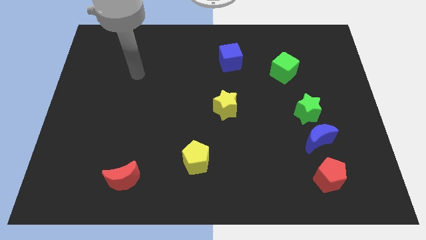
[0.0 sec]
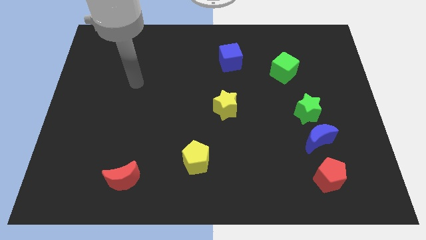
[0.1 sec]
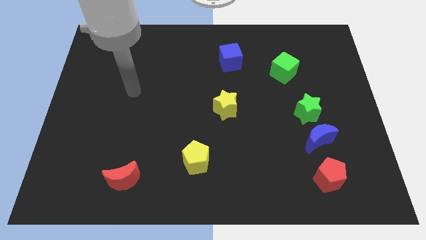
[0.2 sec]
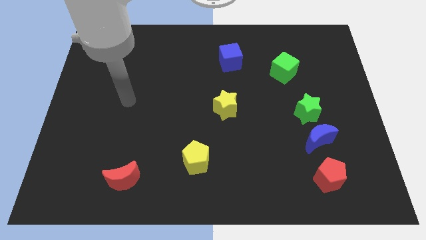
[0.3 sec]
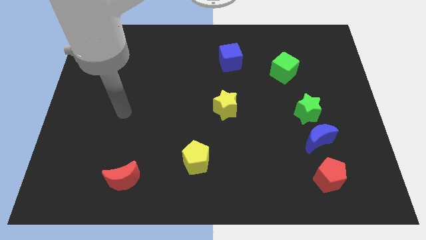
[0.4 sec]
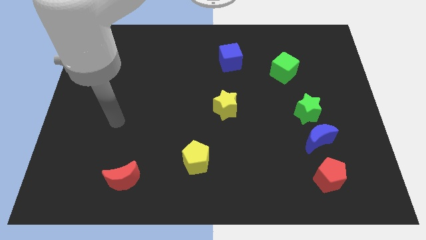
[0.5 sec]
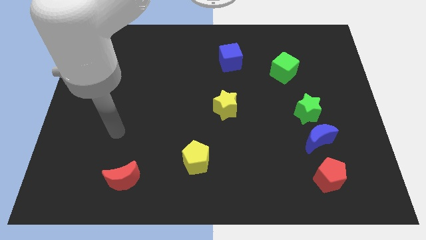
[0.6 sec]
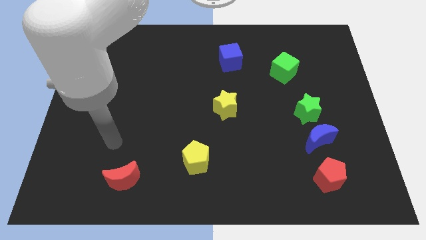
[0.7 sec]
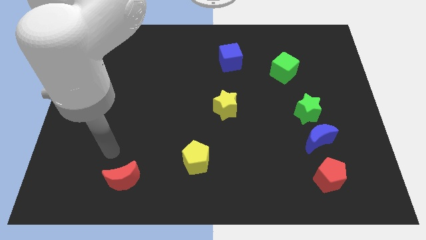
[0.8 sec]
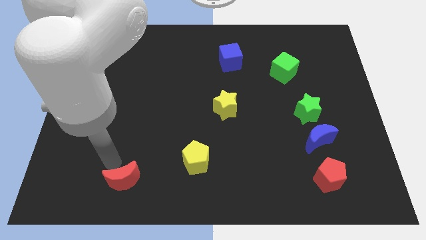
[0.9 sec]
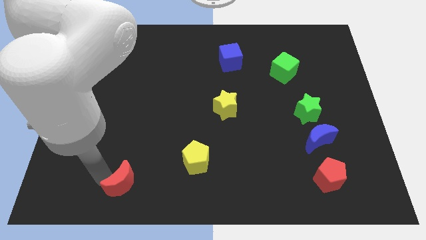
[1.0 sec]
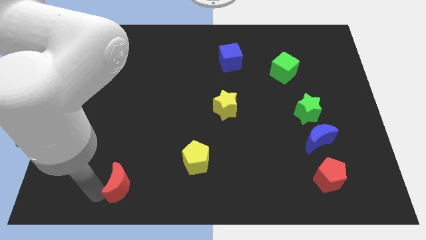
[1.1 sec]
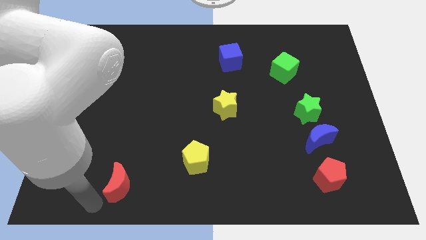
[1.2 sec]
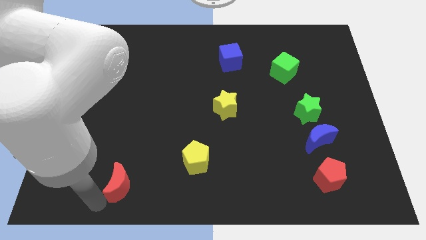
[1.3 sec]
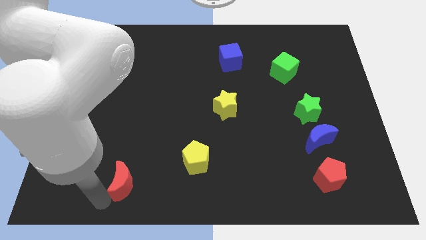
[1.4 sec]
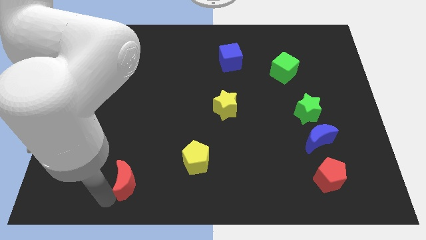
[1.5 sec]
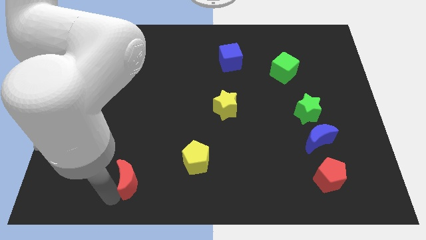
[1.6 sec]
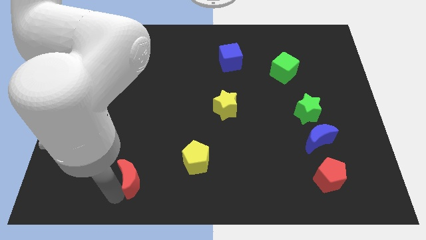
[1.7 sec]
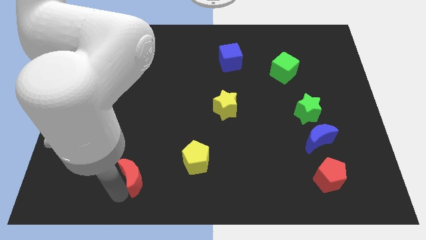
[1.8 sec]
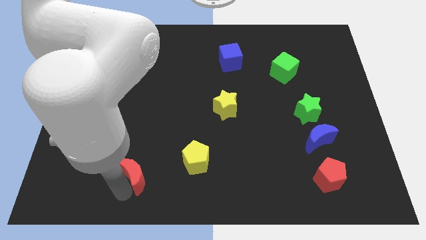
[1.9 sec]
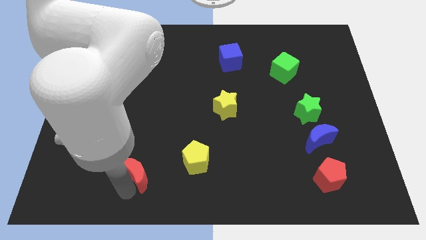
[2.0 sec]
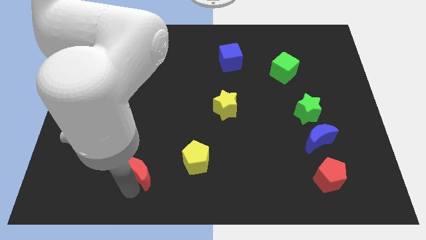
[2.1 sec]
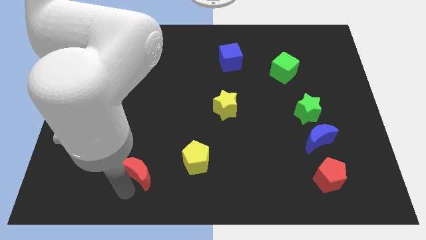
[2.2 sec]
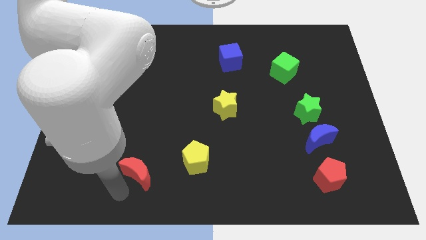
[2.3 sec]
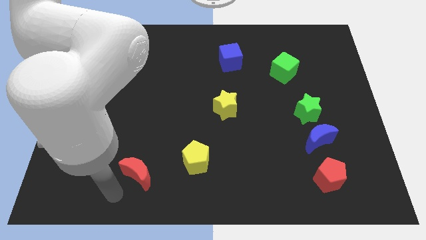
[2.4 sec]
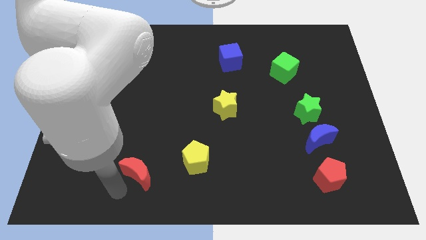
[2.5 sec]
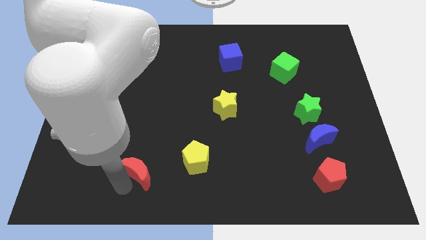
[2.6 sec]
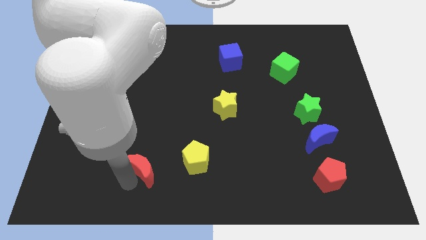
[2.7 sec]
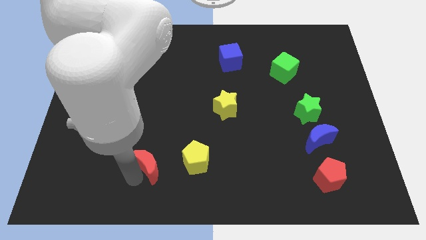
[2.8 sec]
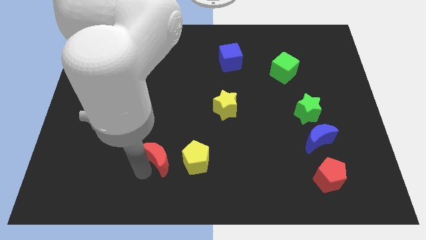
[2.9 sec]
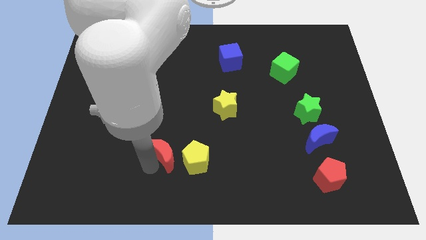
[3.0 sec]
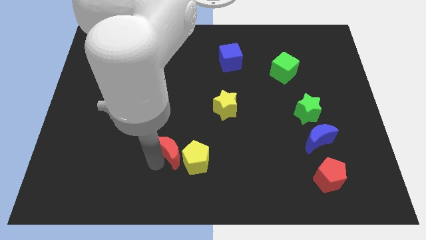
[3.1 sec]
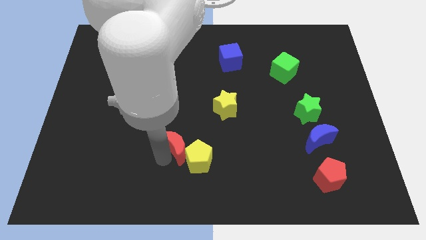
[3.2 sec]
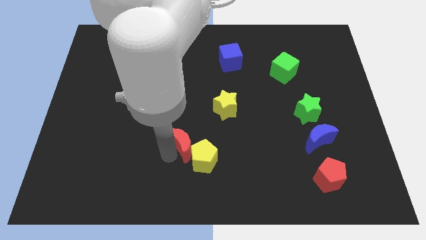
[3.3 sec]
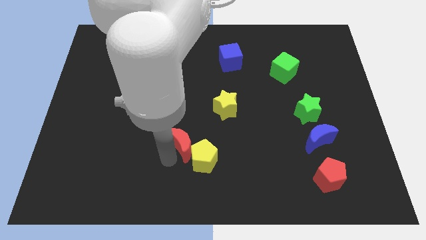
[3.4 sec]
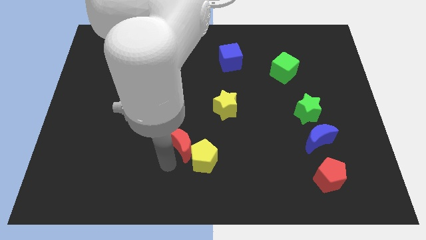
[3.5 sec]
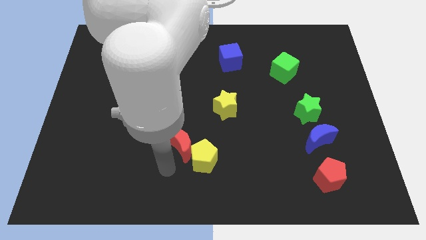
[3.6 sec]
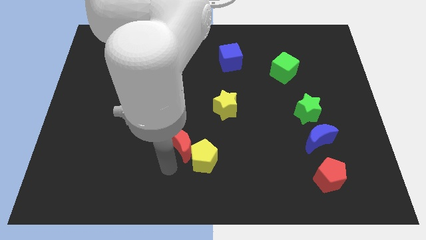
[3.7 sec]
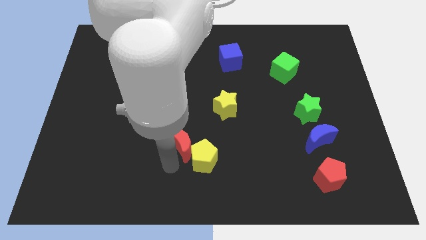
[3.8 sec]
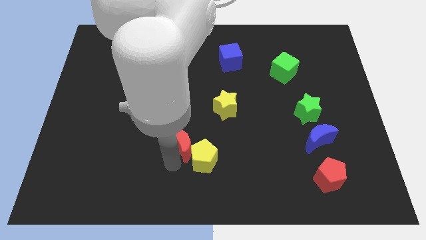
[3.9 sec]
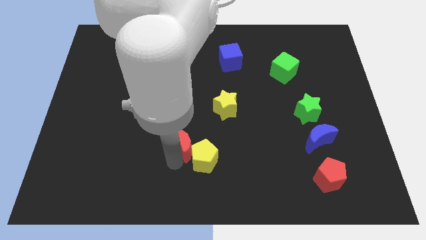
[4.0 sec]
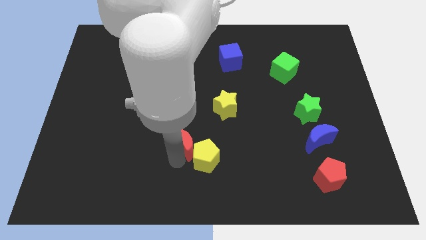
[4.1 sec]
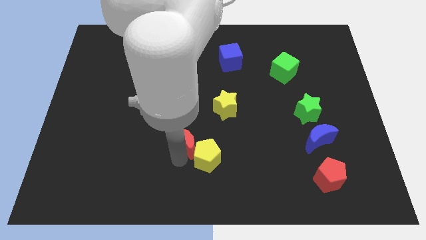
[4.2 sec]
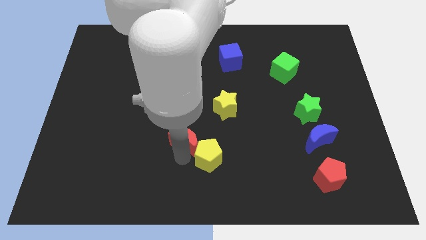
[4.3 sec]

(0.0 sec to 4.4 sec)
slide the red moon to the bottom left side of the yellow star

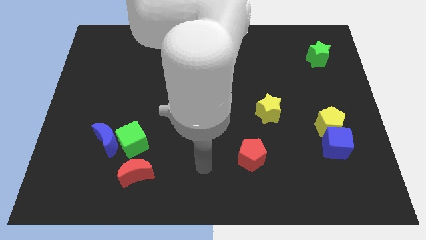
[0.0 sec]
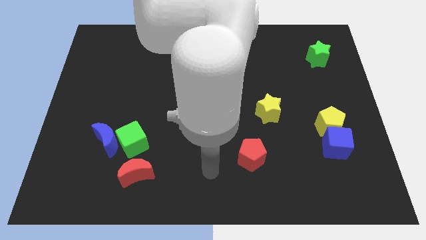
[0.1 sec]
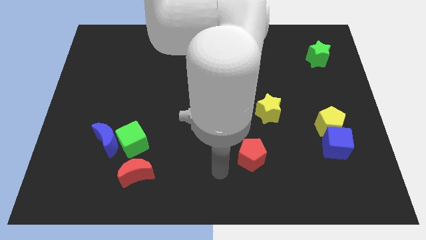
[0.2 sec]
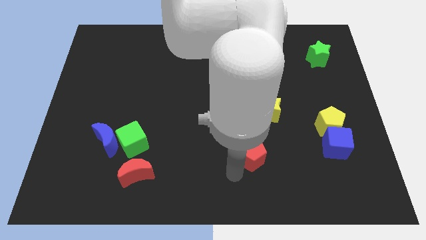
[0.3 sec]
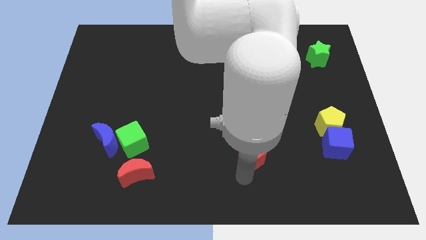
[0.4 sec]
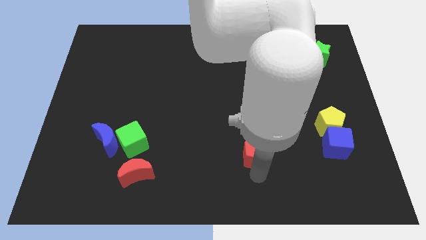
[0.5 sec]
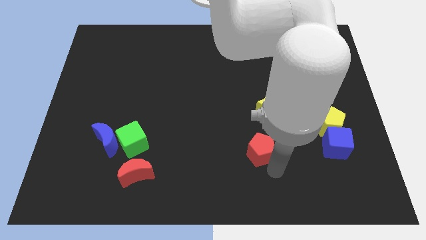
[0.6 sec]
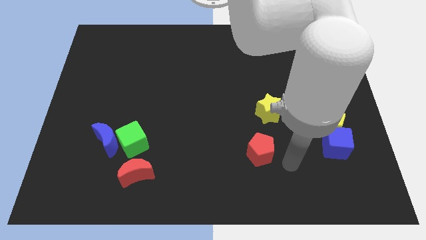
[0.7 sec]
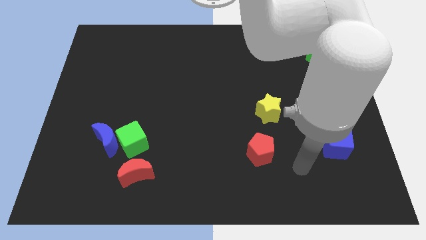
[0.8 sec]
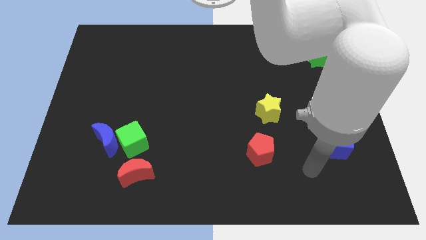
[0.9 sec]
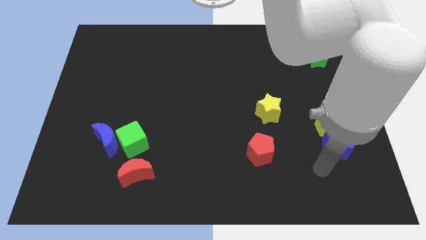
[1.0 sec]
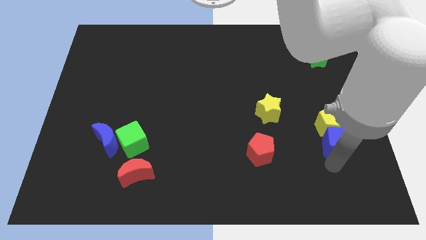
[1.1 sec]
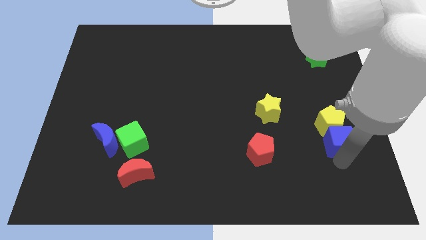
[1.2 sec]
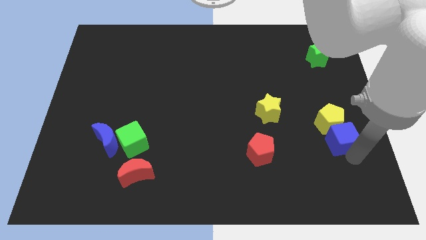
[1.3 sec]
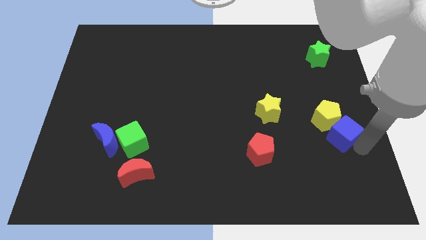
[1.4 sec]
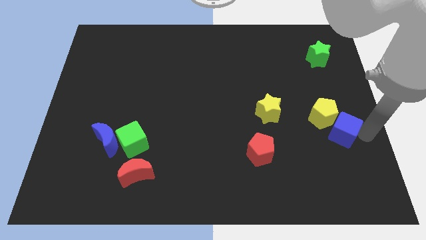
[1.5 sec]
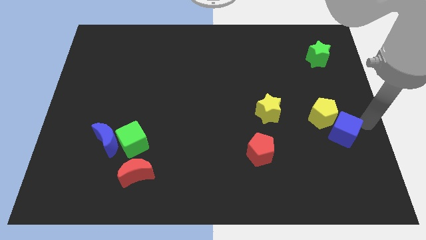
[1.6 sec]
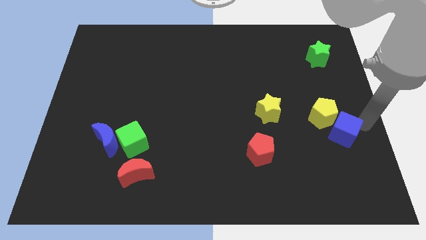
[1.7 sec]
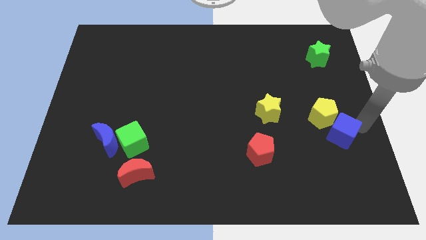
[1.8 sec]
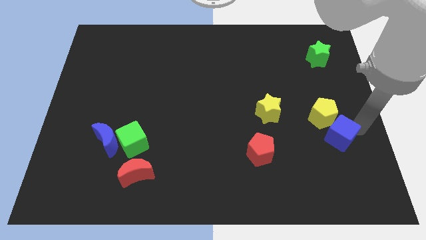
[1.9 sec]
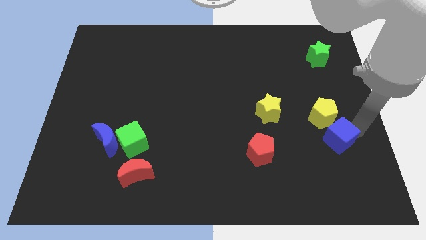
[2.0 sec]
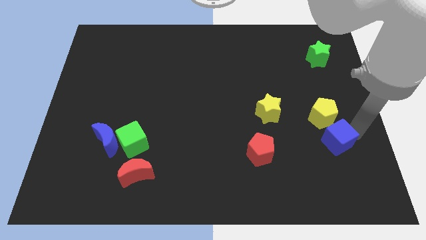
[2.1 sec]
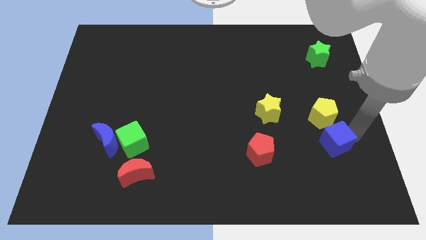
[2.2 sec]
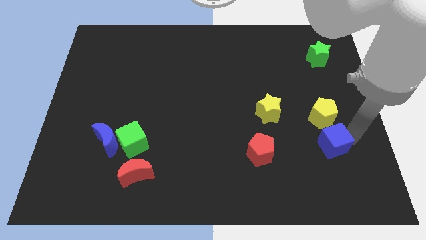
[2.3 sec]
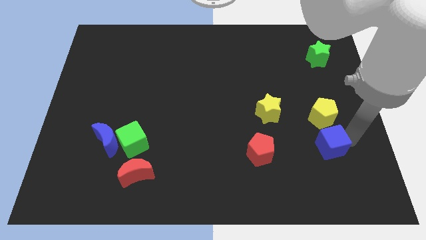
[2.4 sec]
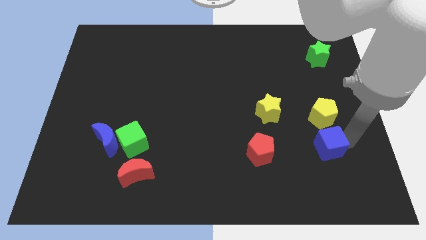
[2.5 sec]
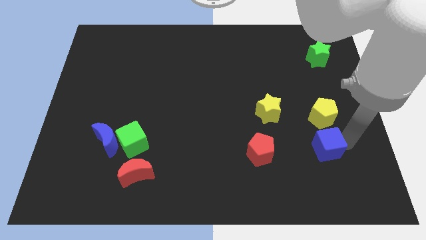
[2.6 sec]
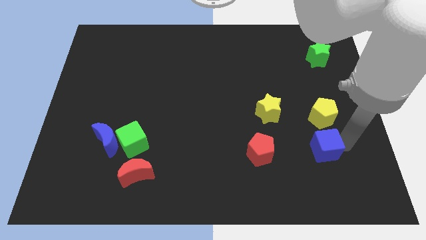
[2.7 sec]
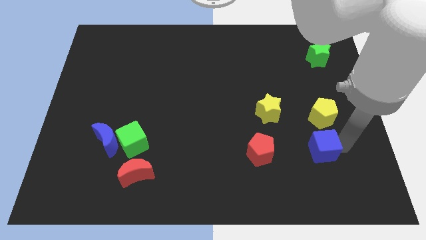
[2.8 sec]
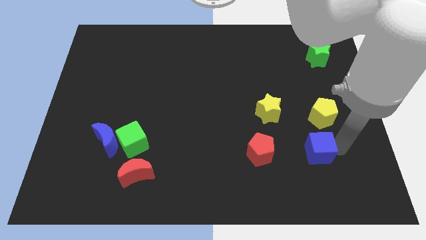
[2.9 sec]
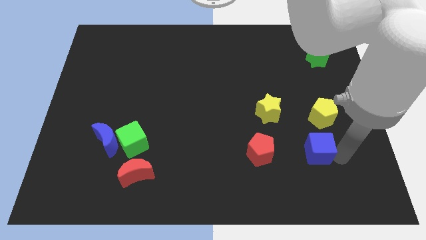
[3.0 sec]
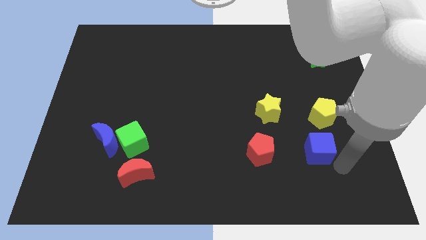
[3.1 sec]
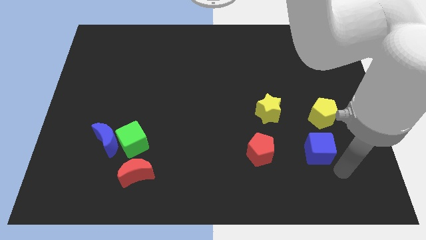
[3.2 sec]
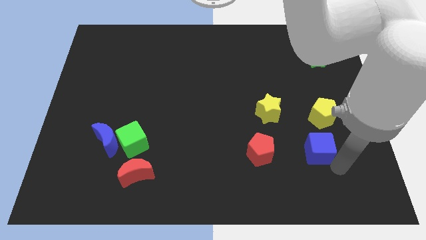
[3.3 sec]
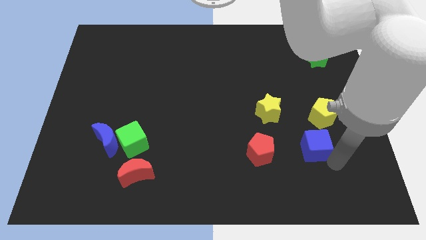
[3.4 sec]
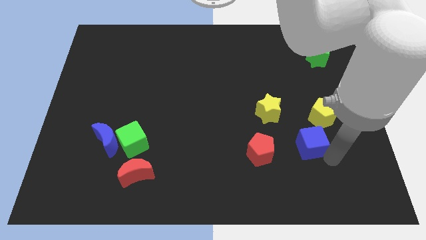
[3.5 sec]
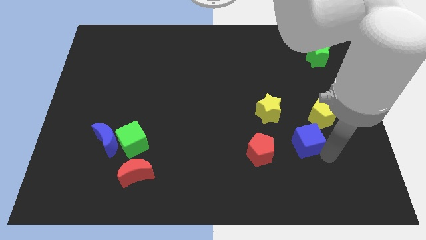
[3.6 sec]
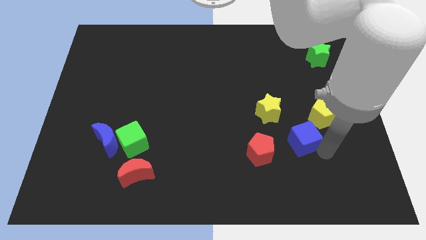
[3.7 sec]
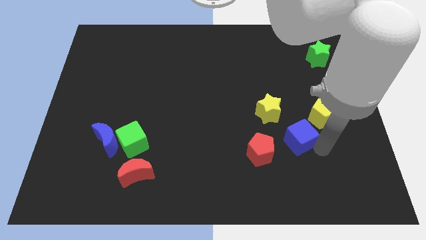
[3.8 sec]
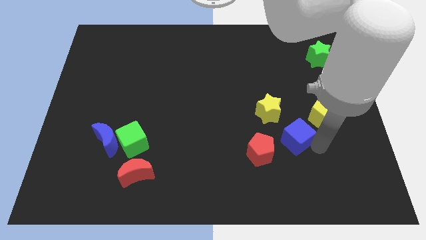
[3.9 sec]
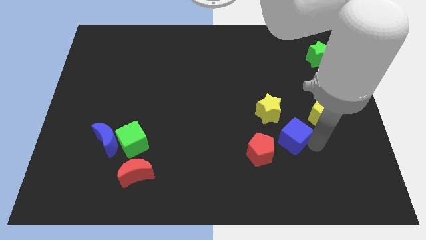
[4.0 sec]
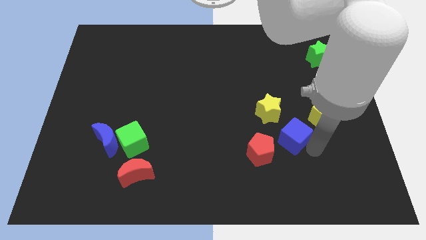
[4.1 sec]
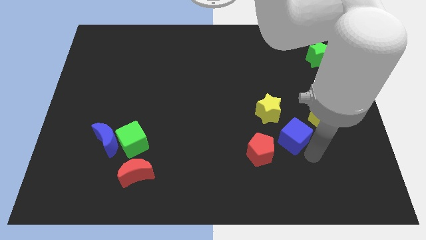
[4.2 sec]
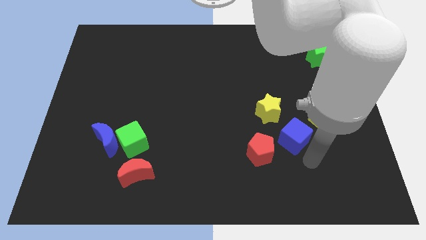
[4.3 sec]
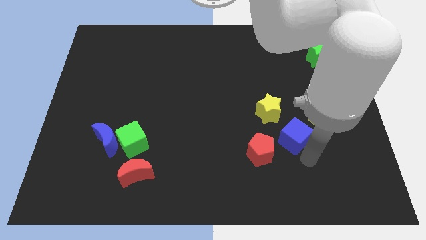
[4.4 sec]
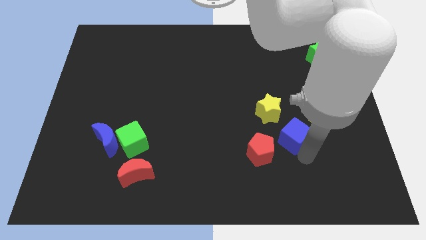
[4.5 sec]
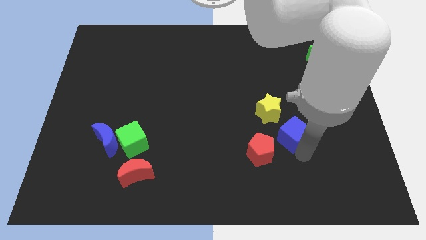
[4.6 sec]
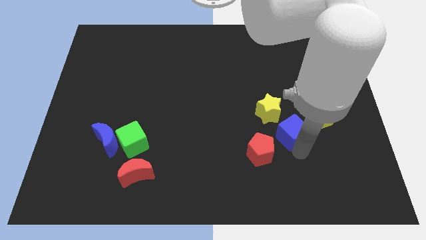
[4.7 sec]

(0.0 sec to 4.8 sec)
move the blue cube to the left side of the yellow pentagon
